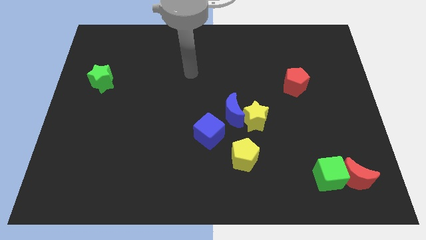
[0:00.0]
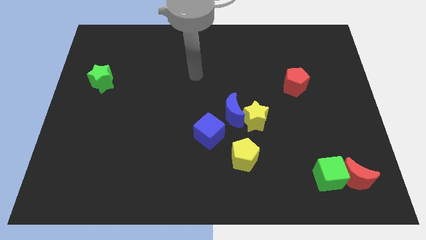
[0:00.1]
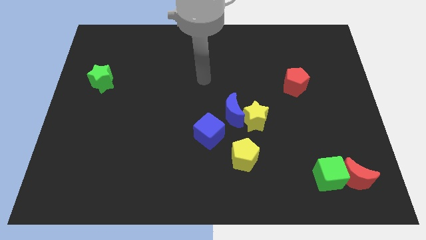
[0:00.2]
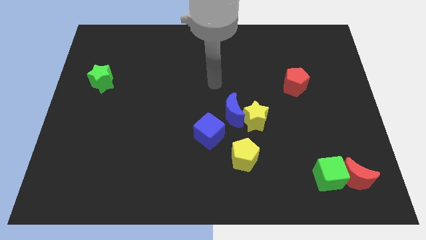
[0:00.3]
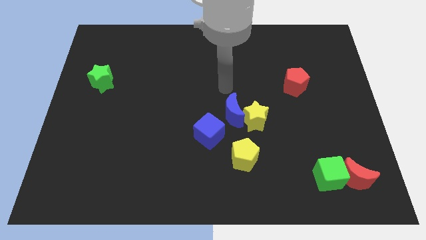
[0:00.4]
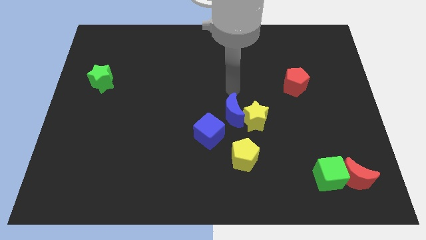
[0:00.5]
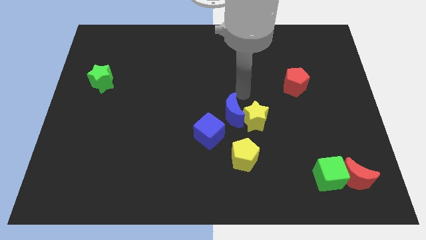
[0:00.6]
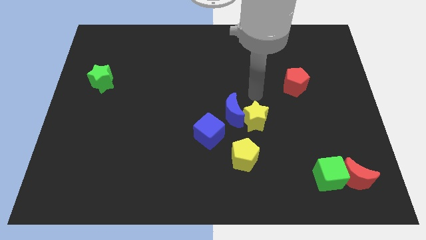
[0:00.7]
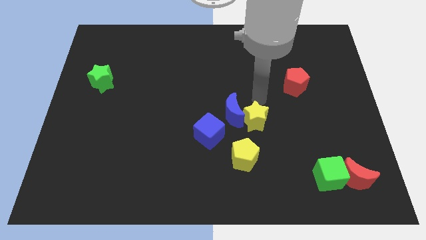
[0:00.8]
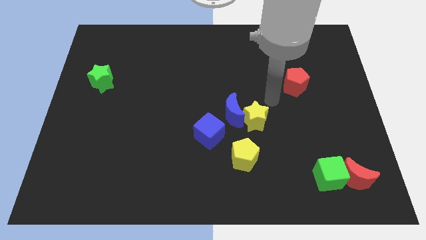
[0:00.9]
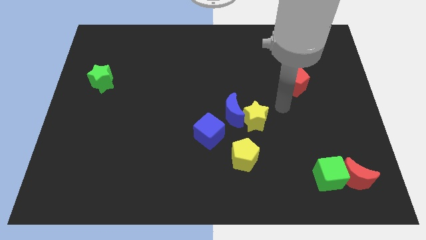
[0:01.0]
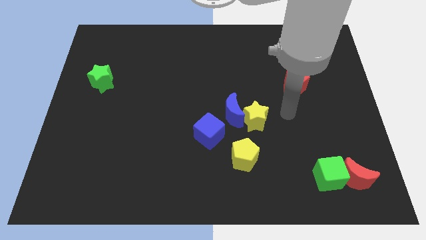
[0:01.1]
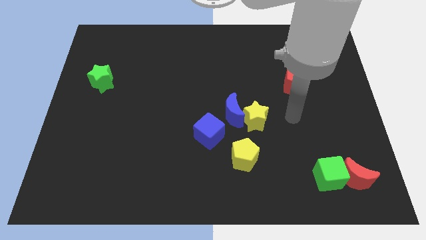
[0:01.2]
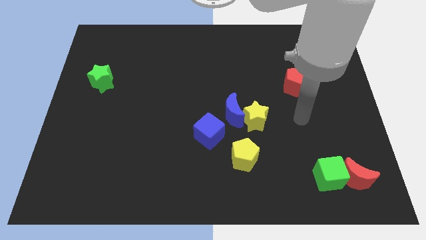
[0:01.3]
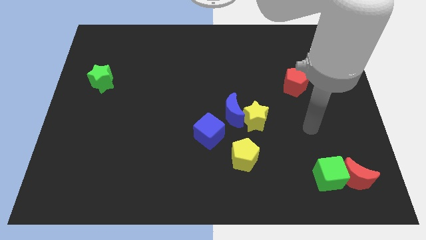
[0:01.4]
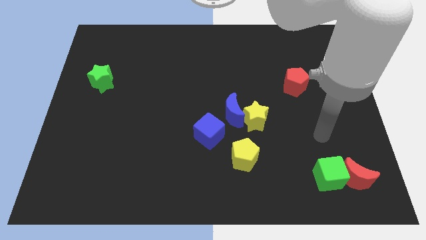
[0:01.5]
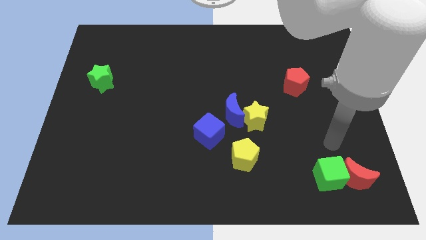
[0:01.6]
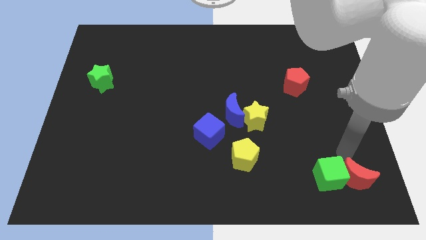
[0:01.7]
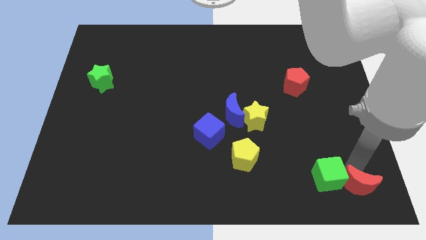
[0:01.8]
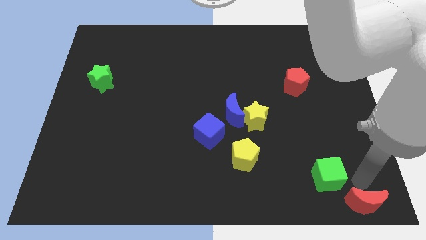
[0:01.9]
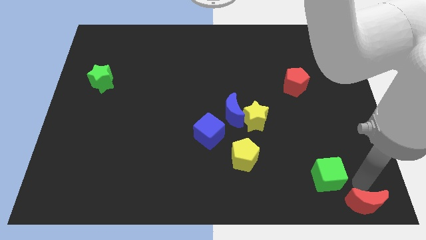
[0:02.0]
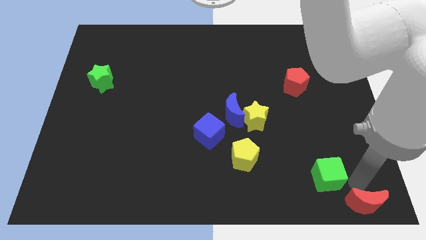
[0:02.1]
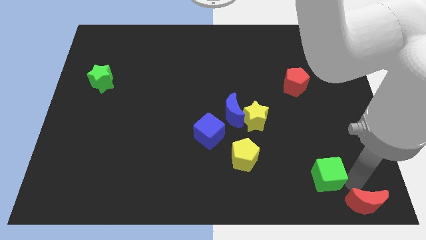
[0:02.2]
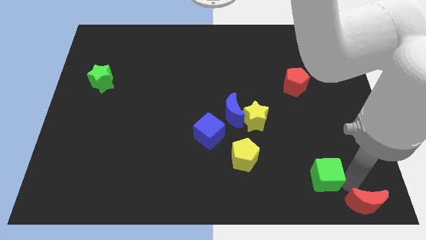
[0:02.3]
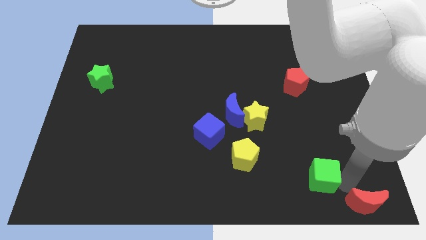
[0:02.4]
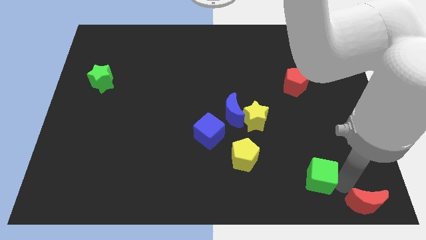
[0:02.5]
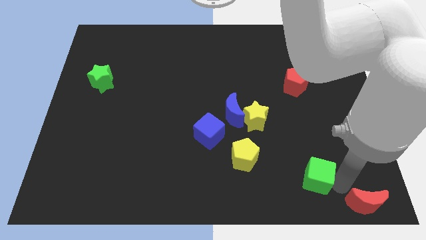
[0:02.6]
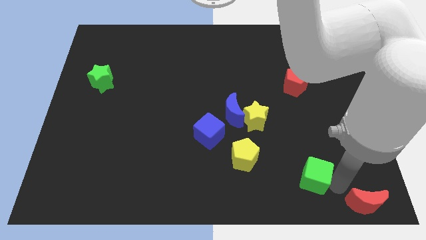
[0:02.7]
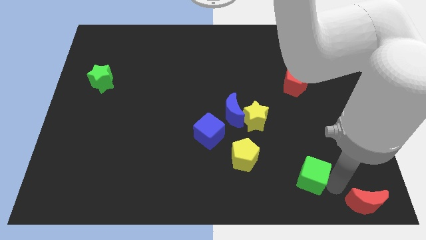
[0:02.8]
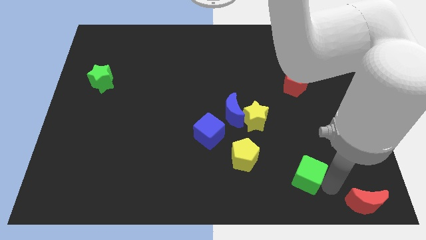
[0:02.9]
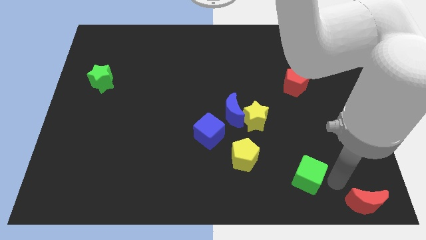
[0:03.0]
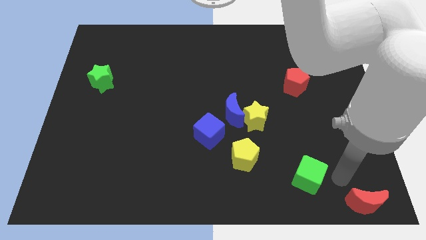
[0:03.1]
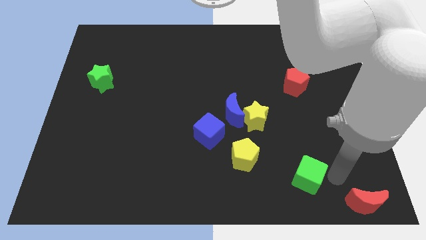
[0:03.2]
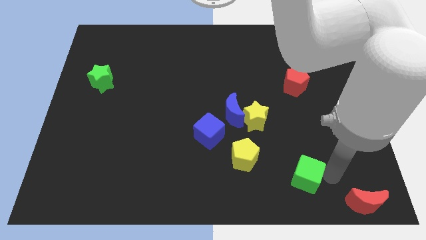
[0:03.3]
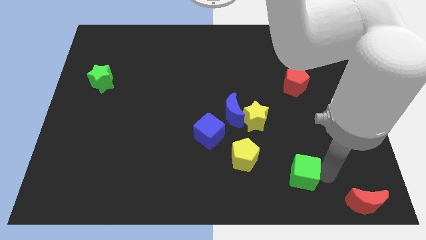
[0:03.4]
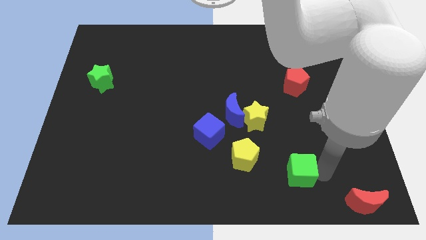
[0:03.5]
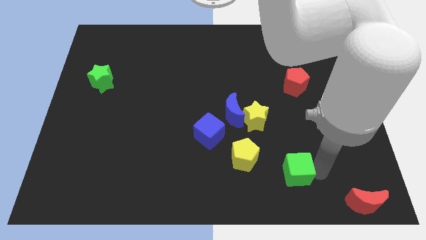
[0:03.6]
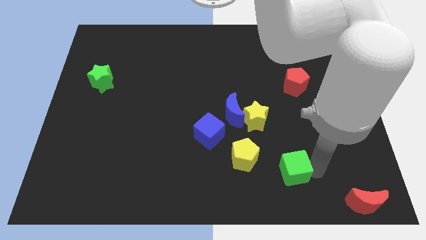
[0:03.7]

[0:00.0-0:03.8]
slide the green cube a bit left

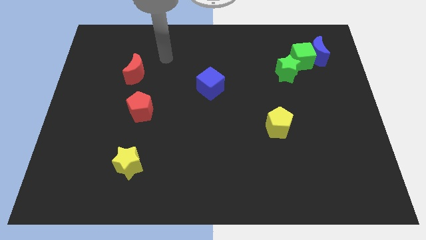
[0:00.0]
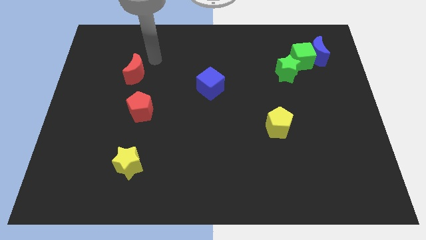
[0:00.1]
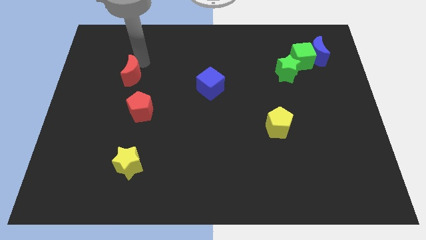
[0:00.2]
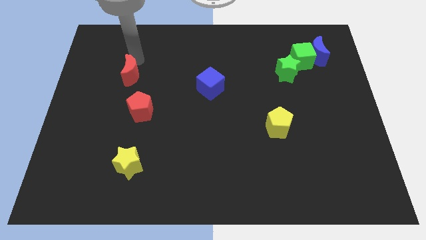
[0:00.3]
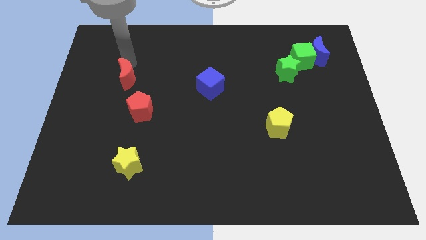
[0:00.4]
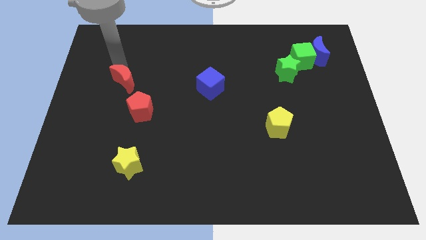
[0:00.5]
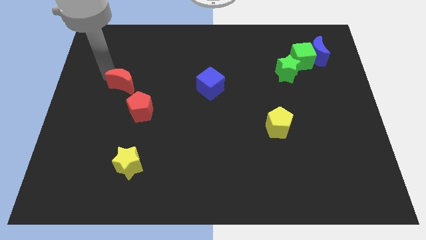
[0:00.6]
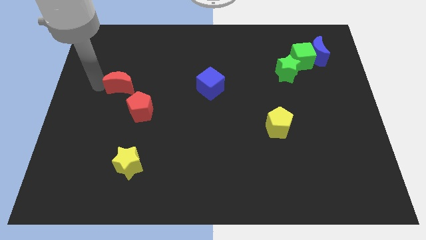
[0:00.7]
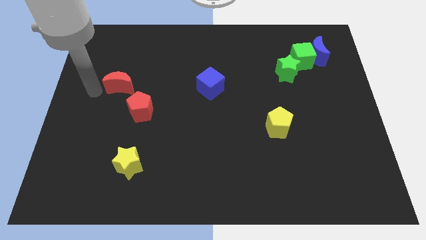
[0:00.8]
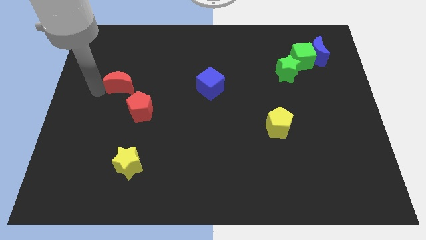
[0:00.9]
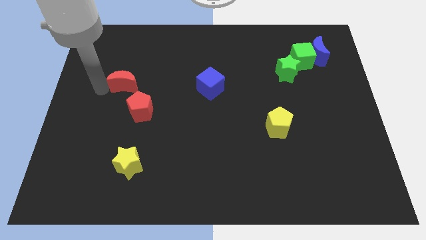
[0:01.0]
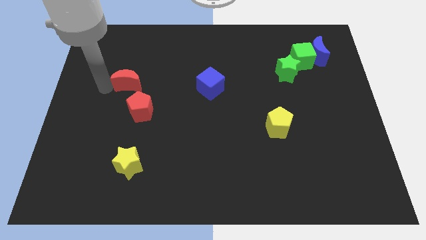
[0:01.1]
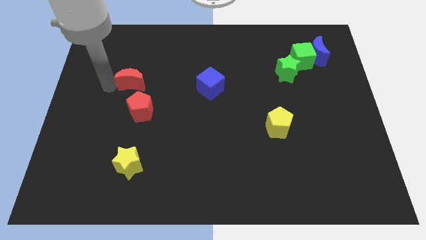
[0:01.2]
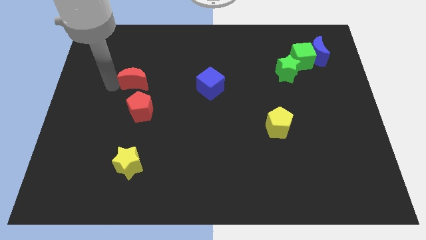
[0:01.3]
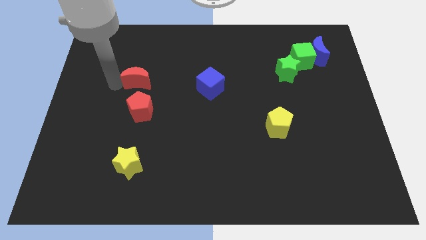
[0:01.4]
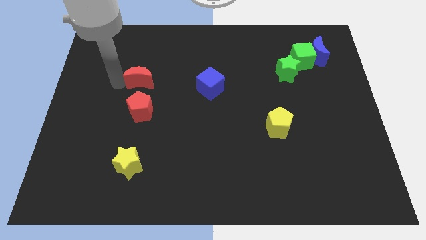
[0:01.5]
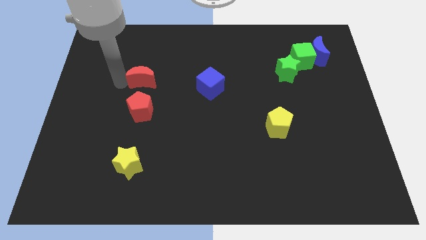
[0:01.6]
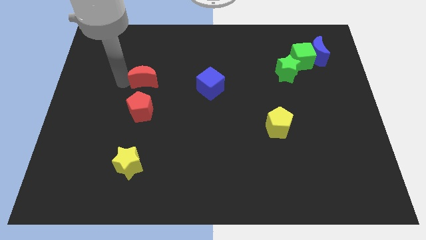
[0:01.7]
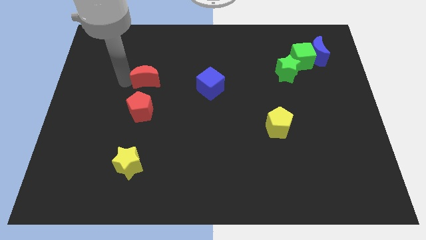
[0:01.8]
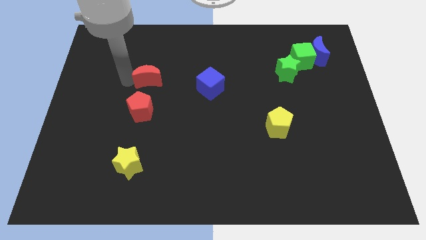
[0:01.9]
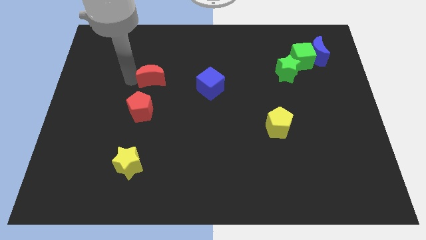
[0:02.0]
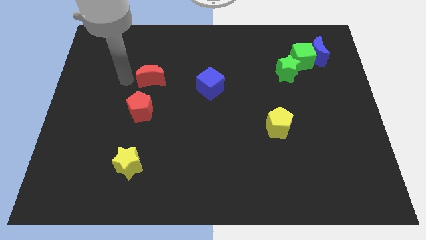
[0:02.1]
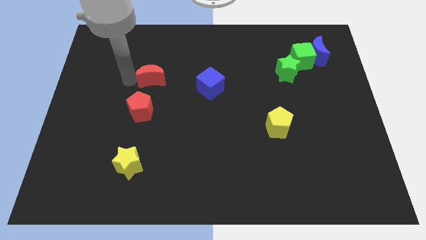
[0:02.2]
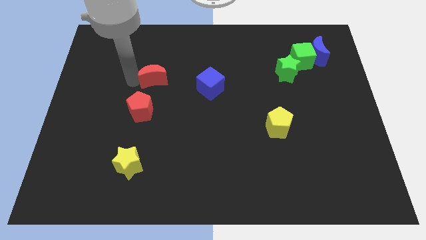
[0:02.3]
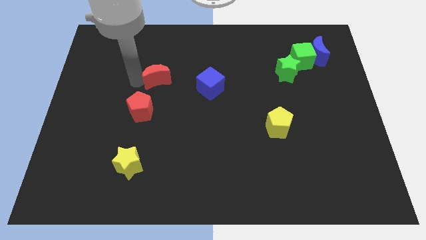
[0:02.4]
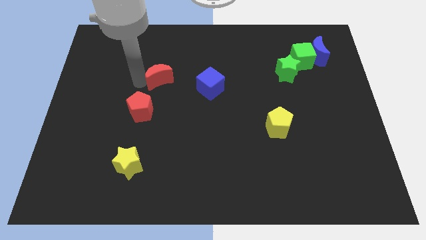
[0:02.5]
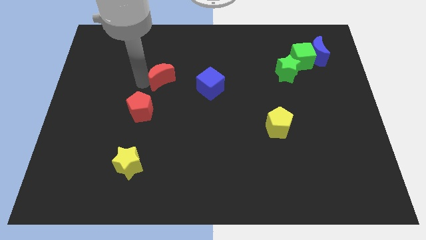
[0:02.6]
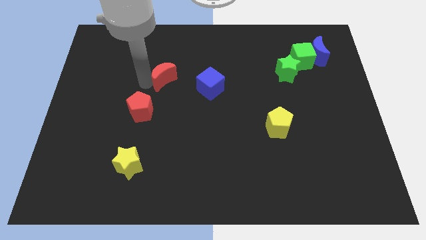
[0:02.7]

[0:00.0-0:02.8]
slightly move the red moon right

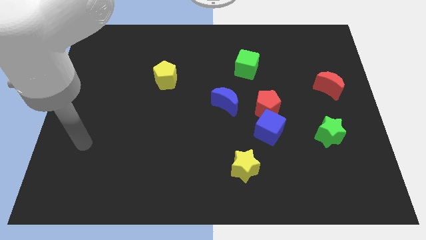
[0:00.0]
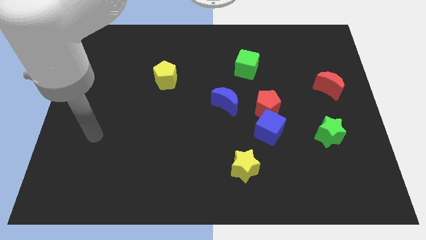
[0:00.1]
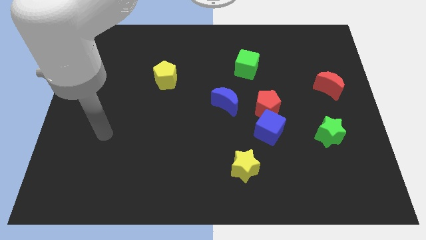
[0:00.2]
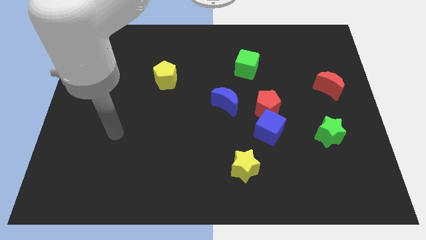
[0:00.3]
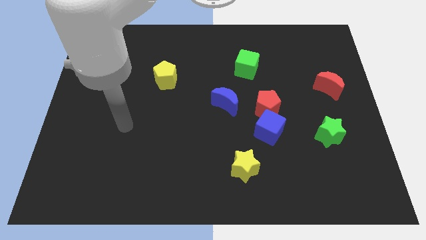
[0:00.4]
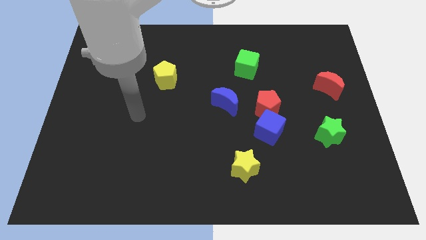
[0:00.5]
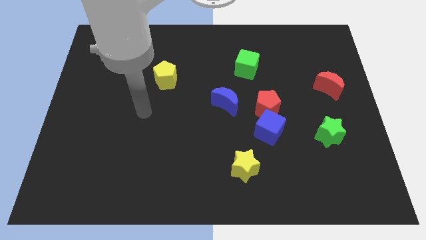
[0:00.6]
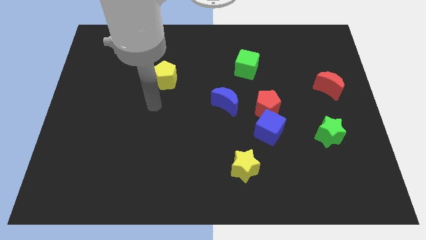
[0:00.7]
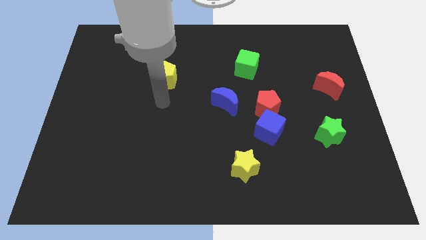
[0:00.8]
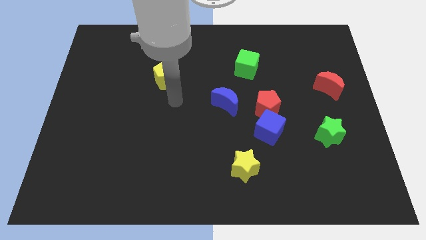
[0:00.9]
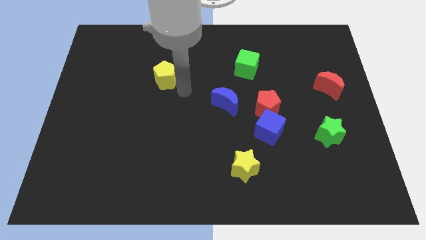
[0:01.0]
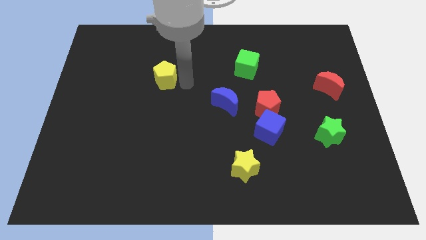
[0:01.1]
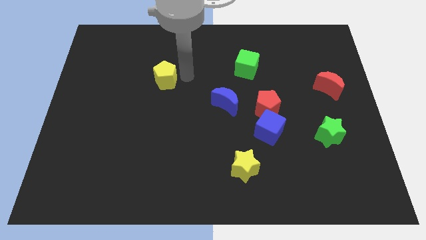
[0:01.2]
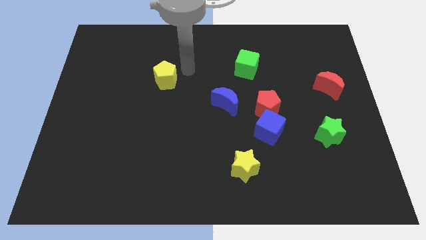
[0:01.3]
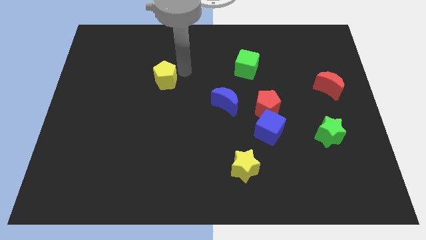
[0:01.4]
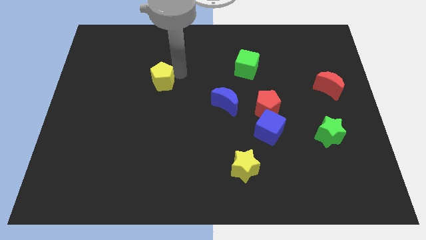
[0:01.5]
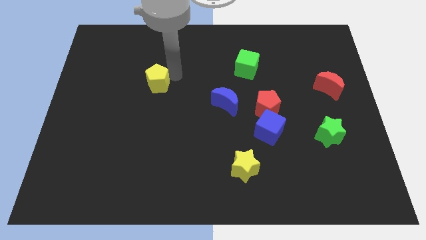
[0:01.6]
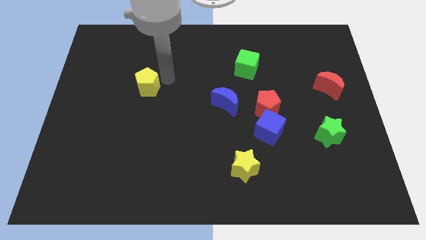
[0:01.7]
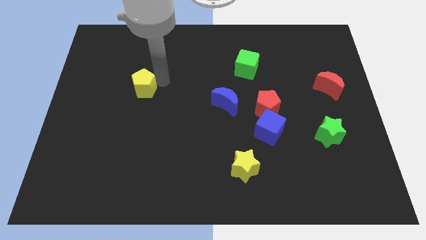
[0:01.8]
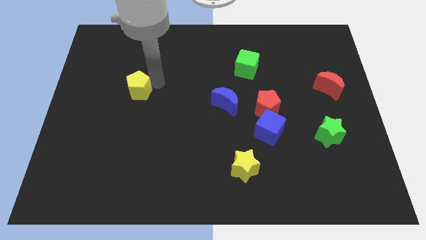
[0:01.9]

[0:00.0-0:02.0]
slide the yellow pentagon down and to the left diagonally somewhat
